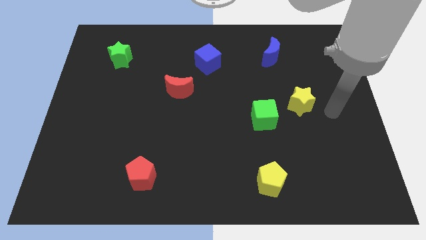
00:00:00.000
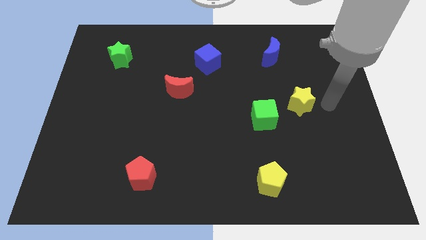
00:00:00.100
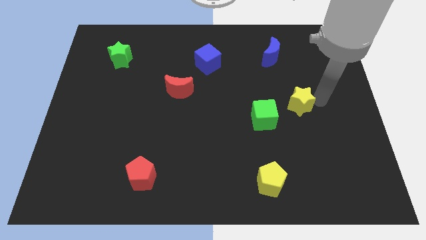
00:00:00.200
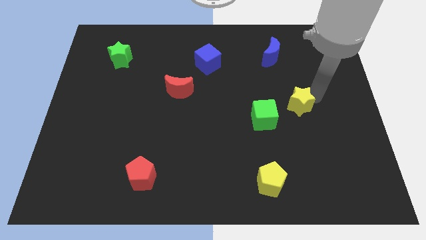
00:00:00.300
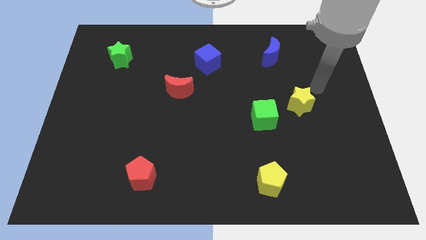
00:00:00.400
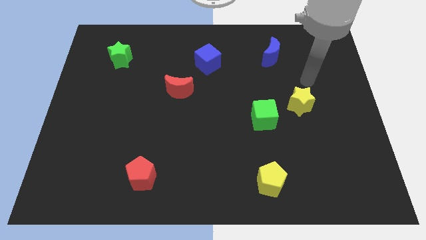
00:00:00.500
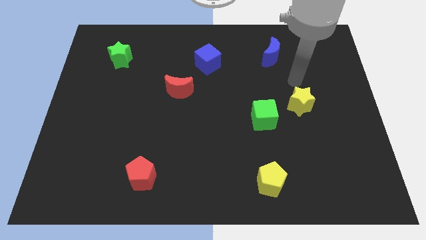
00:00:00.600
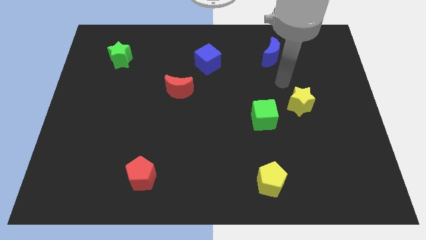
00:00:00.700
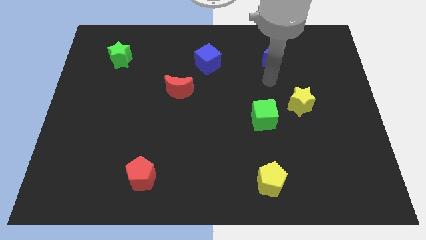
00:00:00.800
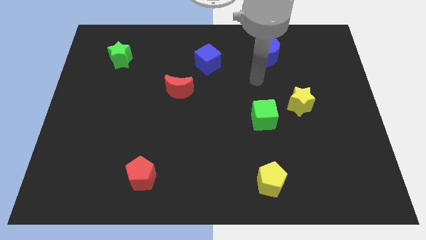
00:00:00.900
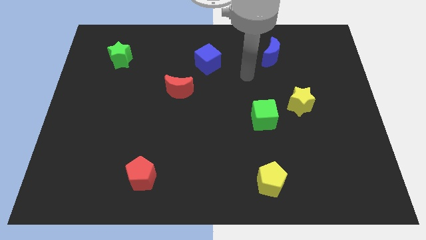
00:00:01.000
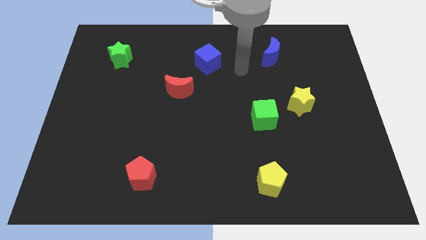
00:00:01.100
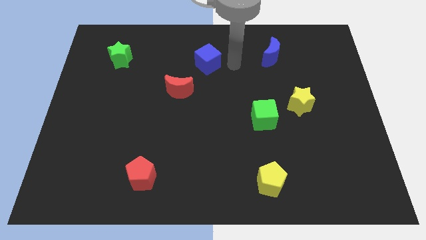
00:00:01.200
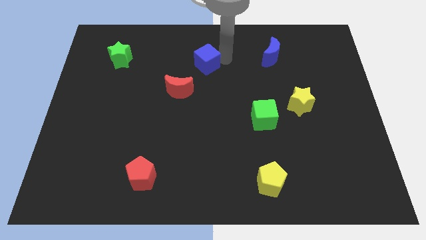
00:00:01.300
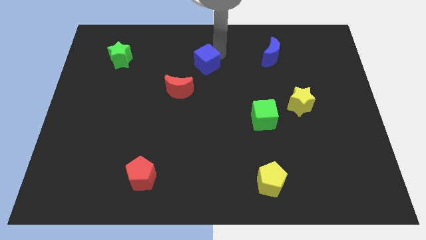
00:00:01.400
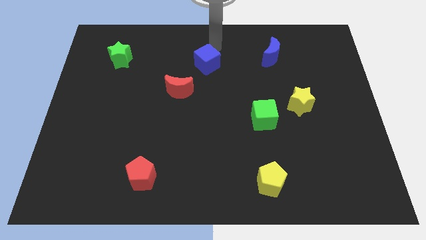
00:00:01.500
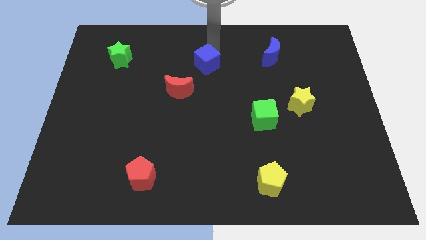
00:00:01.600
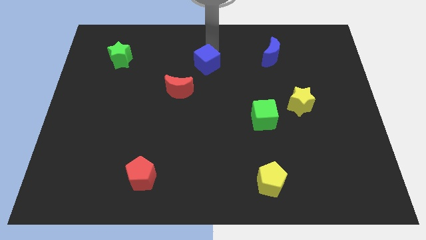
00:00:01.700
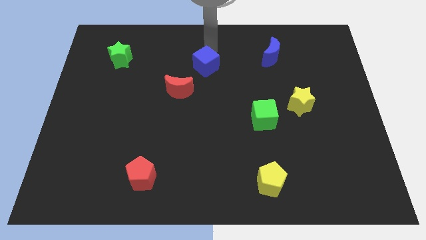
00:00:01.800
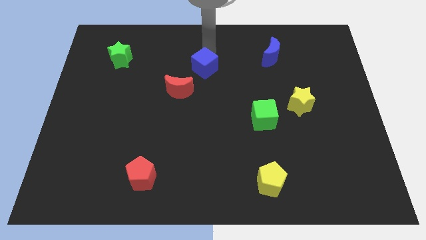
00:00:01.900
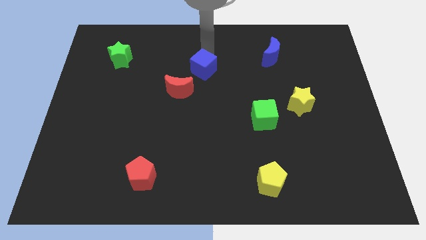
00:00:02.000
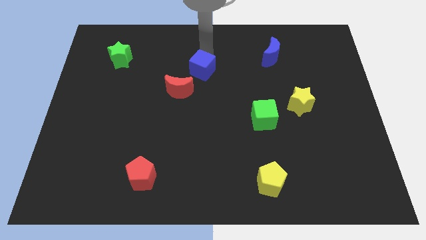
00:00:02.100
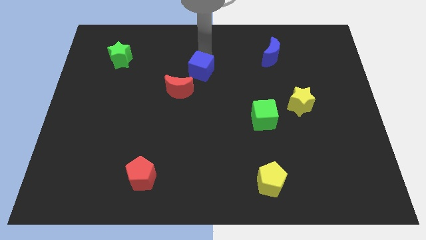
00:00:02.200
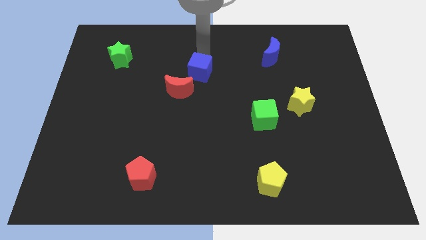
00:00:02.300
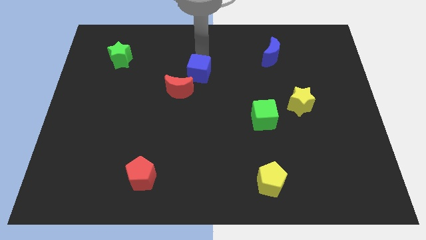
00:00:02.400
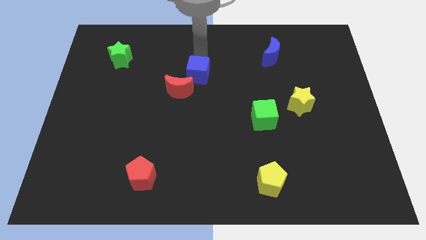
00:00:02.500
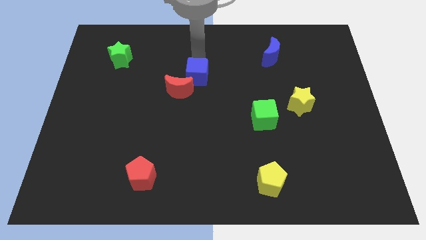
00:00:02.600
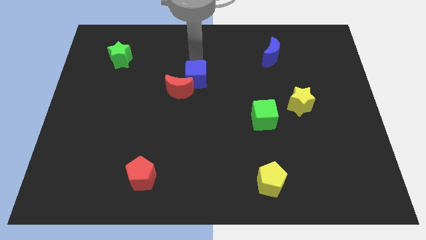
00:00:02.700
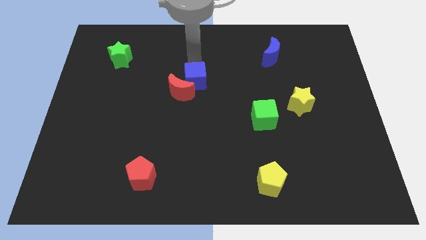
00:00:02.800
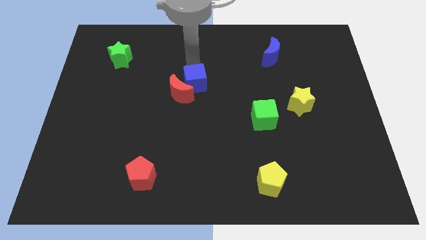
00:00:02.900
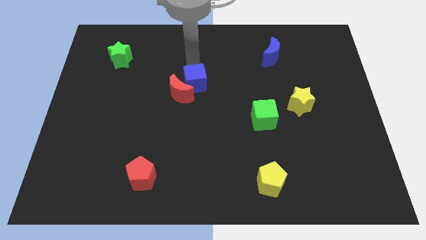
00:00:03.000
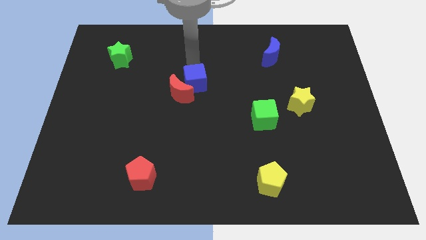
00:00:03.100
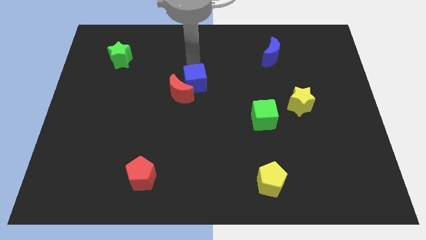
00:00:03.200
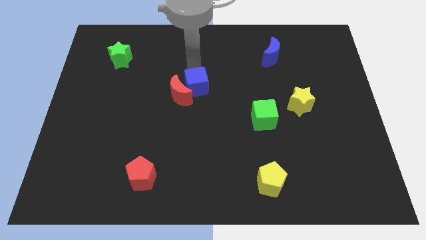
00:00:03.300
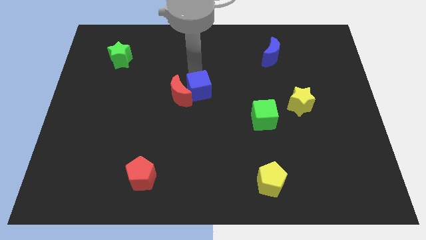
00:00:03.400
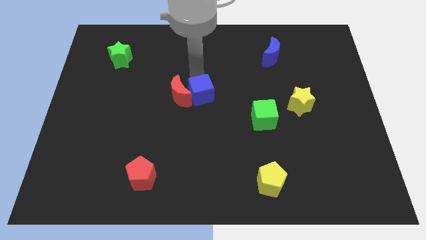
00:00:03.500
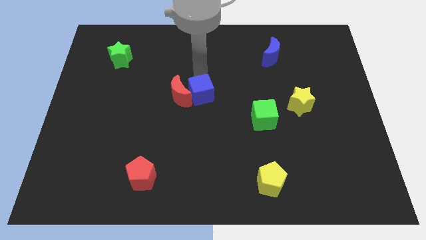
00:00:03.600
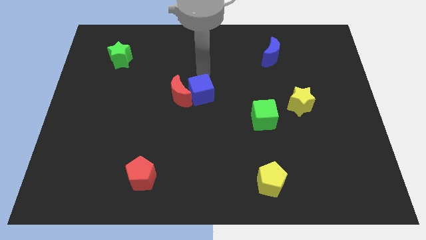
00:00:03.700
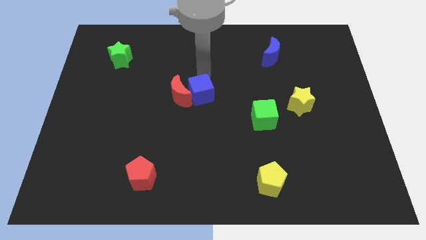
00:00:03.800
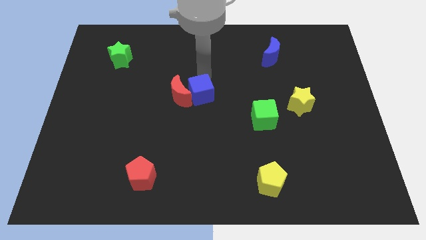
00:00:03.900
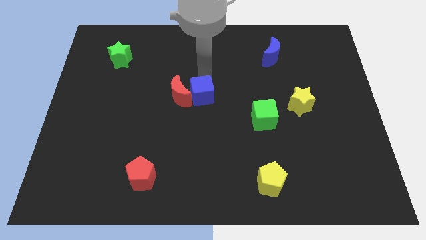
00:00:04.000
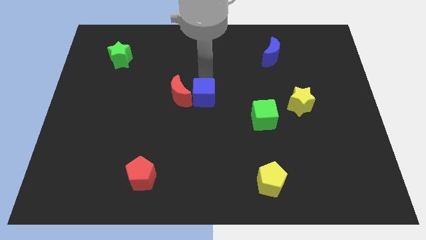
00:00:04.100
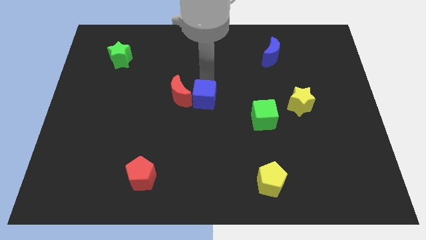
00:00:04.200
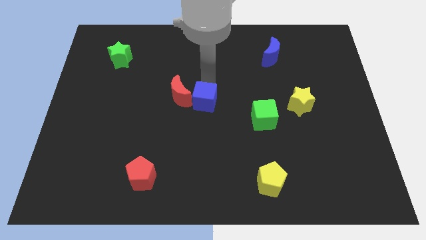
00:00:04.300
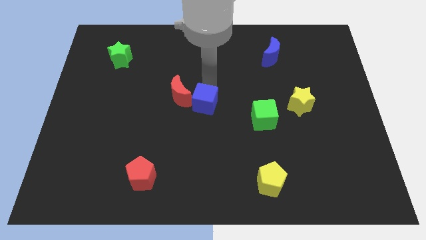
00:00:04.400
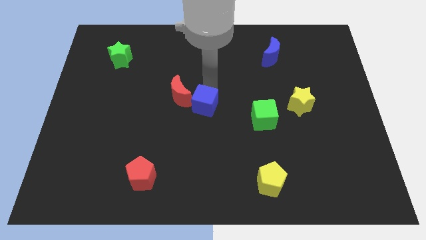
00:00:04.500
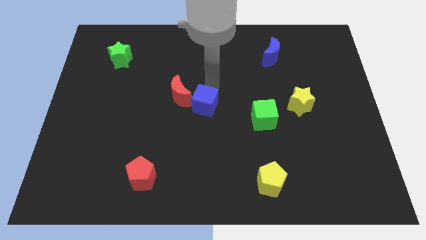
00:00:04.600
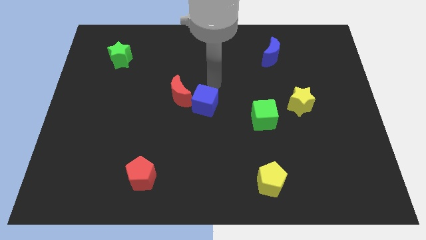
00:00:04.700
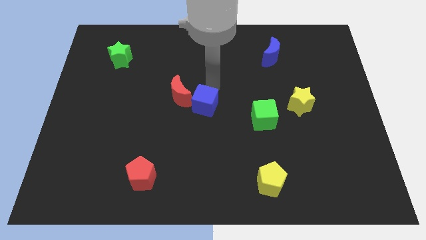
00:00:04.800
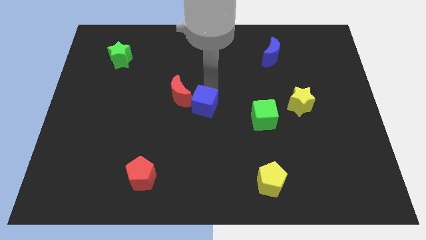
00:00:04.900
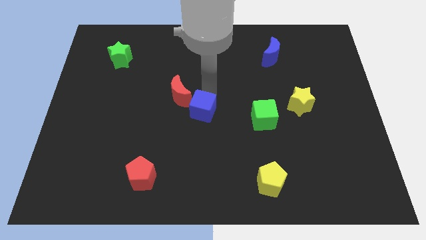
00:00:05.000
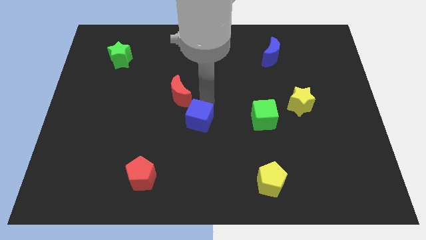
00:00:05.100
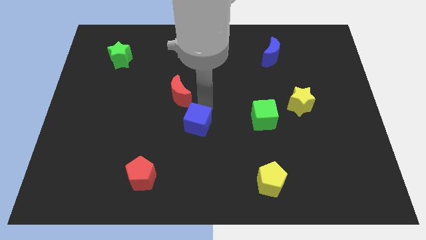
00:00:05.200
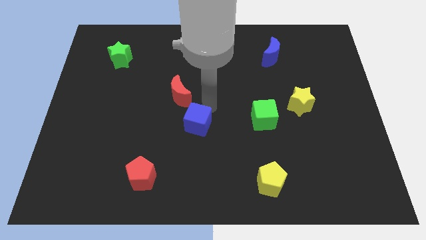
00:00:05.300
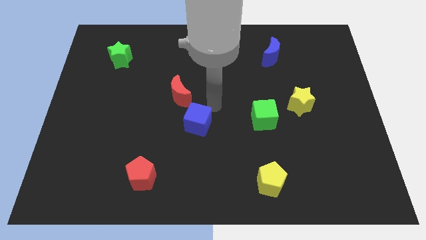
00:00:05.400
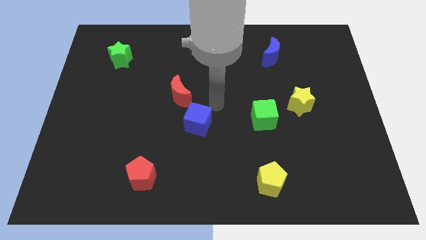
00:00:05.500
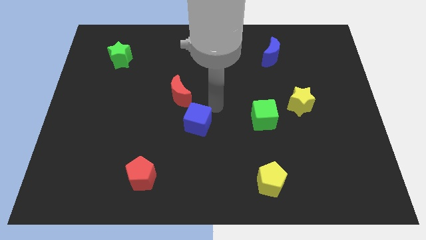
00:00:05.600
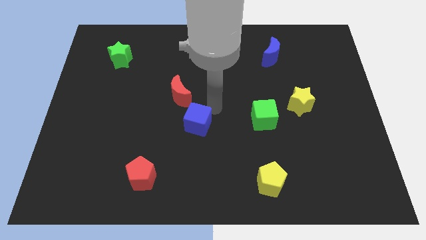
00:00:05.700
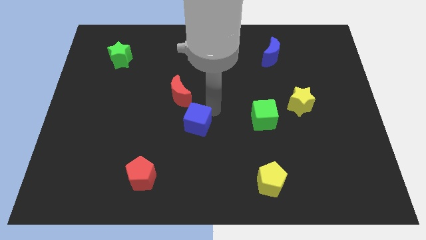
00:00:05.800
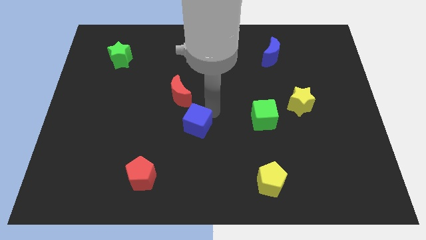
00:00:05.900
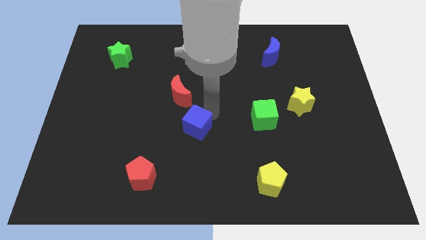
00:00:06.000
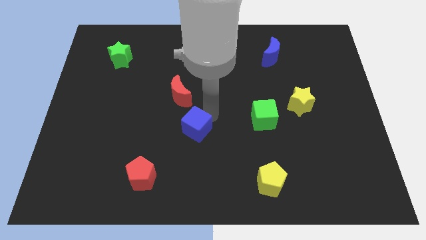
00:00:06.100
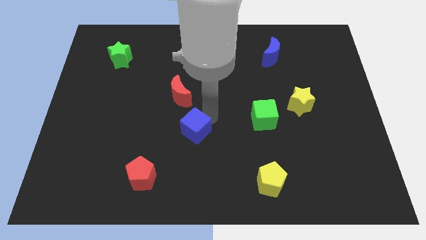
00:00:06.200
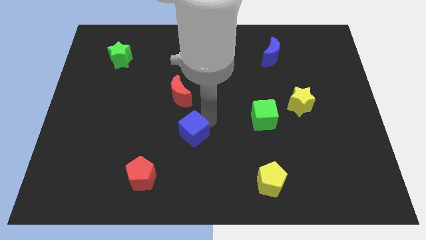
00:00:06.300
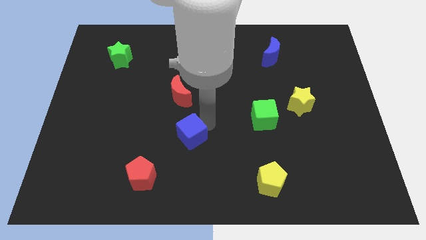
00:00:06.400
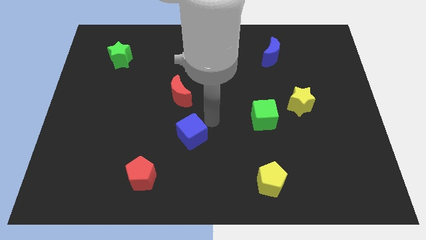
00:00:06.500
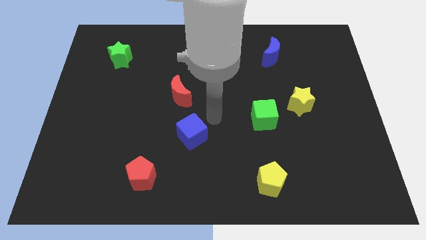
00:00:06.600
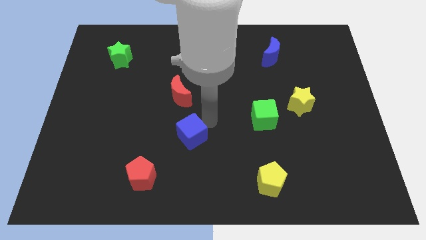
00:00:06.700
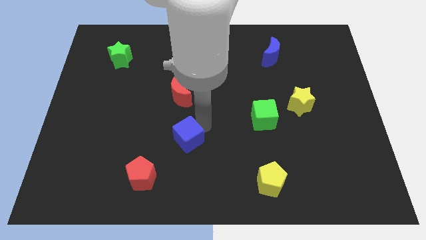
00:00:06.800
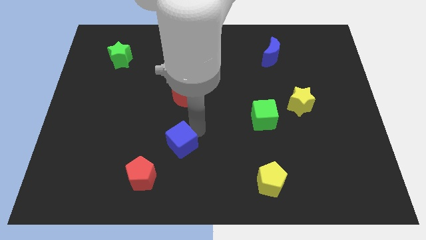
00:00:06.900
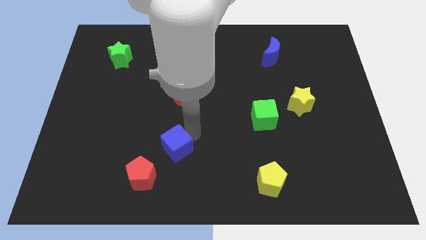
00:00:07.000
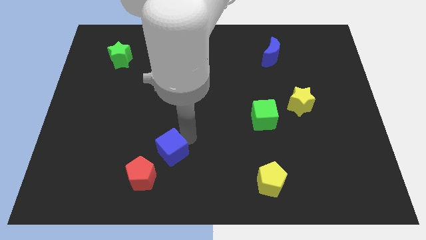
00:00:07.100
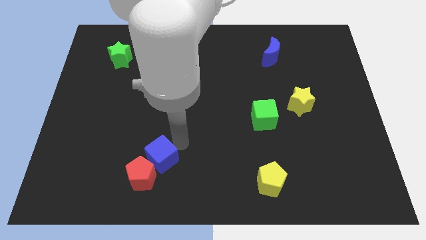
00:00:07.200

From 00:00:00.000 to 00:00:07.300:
slide the blue cube towards the red pentagon
